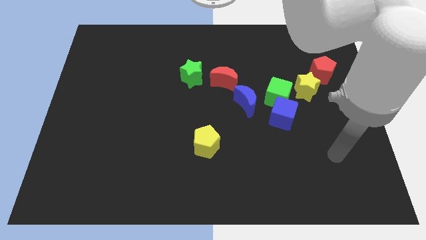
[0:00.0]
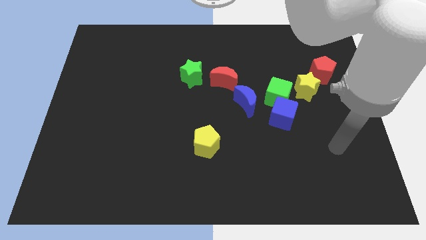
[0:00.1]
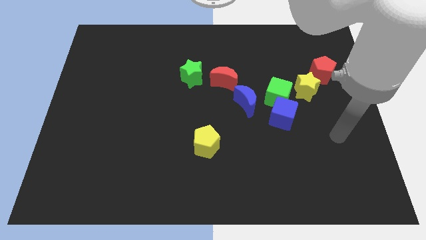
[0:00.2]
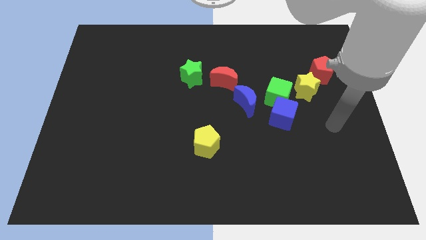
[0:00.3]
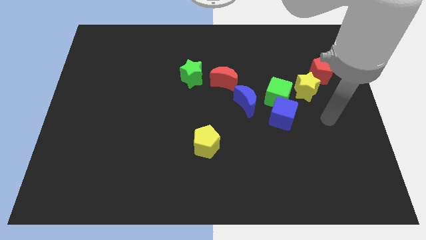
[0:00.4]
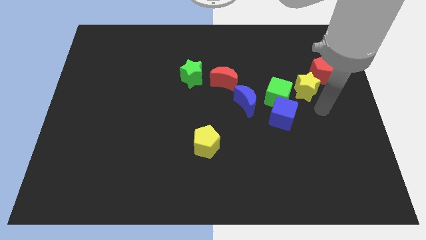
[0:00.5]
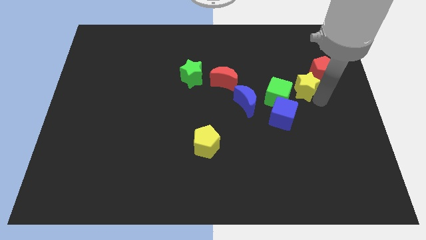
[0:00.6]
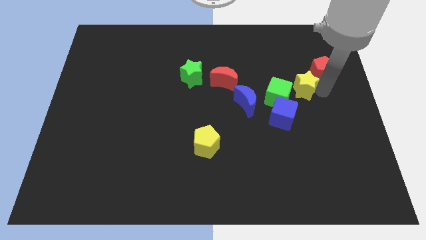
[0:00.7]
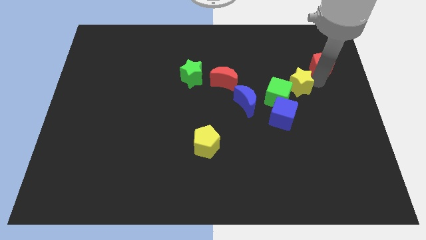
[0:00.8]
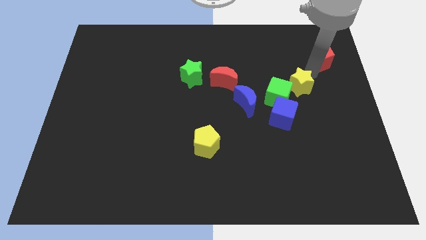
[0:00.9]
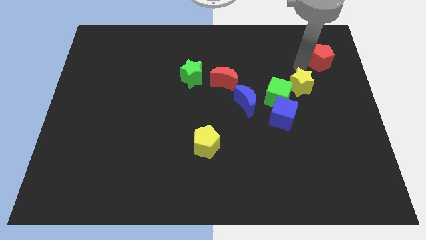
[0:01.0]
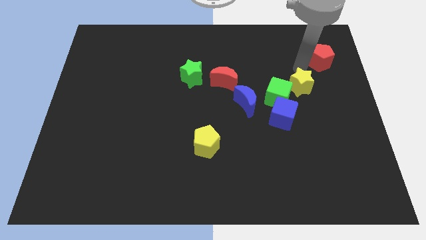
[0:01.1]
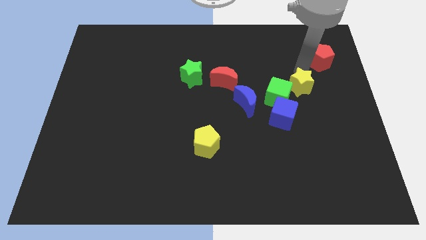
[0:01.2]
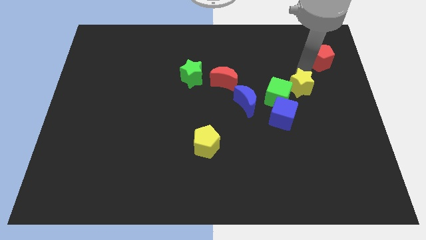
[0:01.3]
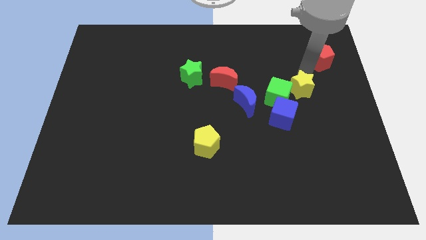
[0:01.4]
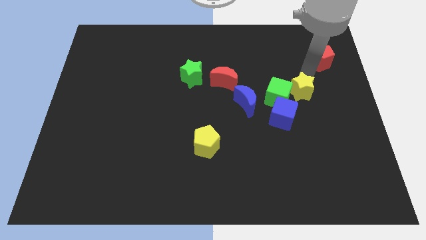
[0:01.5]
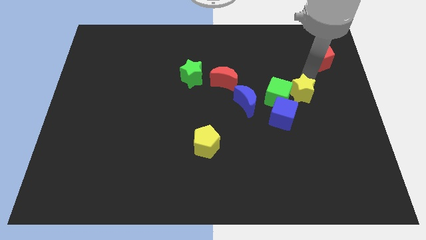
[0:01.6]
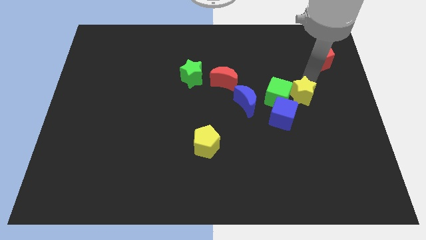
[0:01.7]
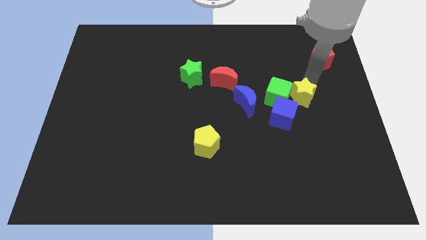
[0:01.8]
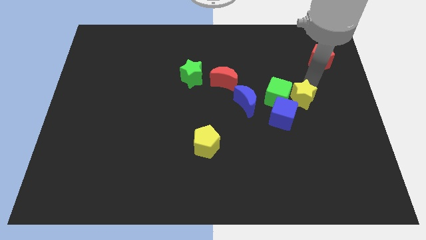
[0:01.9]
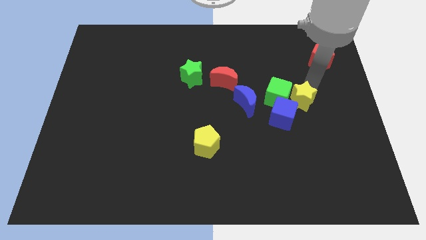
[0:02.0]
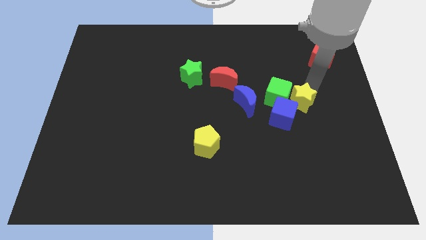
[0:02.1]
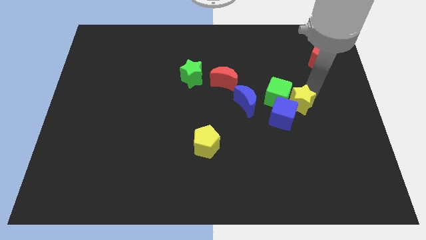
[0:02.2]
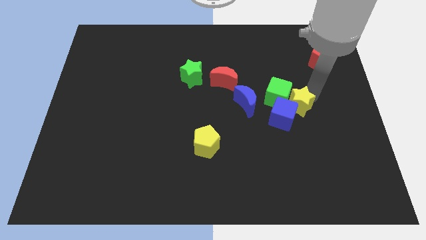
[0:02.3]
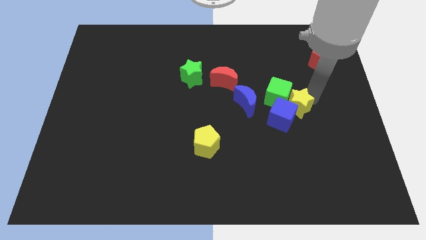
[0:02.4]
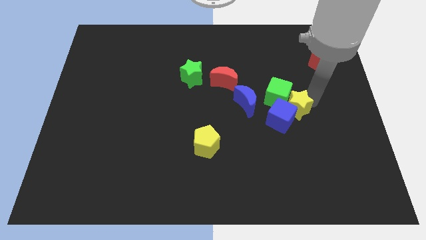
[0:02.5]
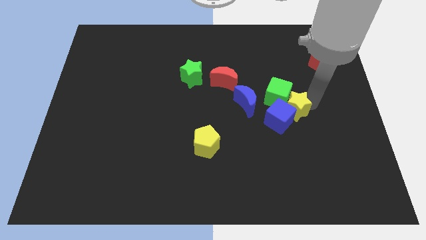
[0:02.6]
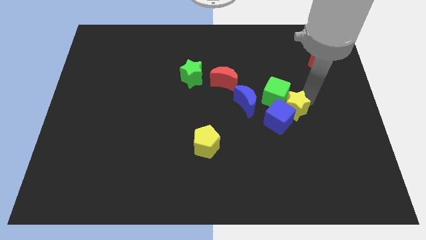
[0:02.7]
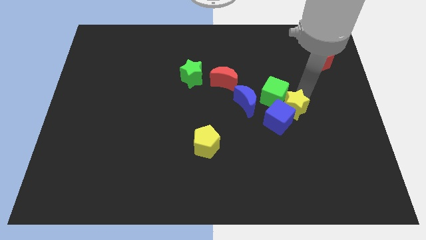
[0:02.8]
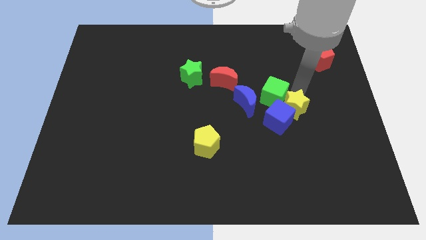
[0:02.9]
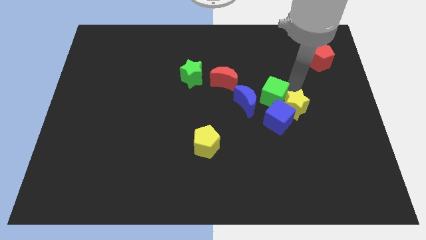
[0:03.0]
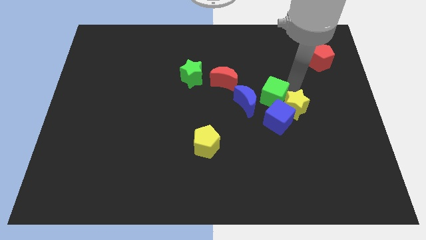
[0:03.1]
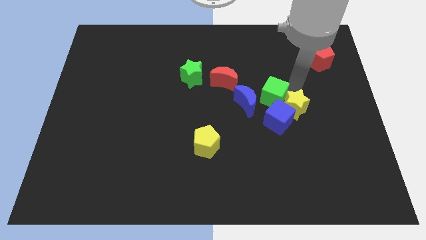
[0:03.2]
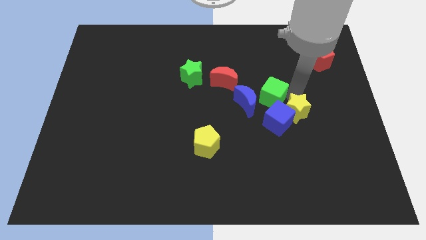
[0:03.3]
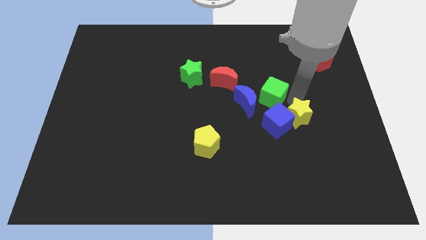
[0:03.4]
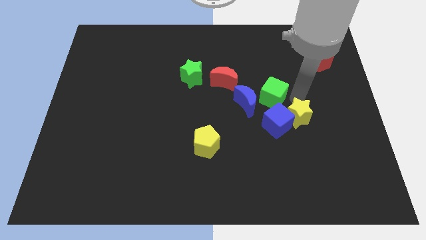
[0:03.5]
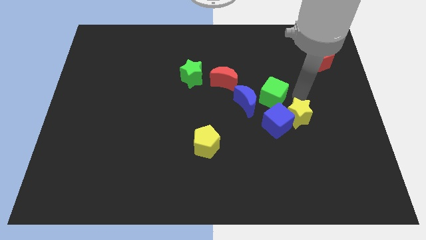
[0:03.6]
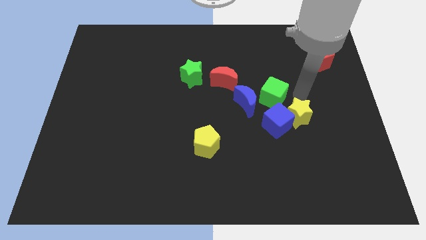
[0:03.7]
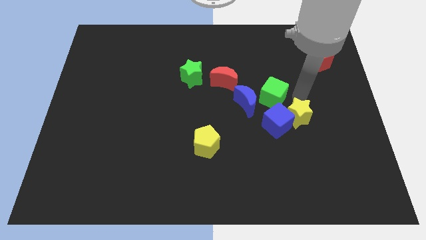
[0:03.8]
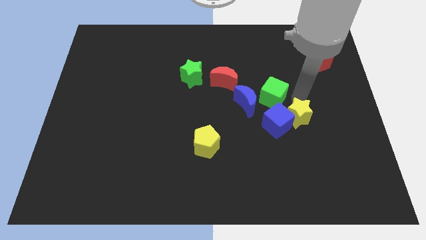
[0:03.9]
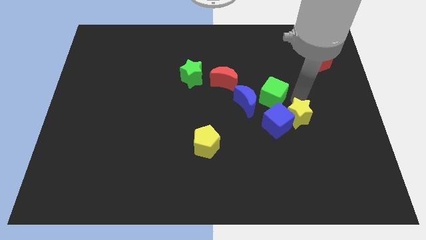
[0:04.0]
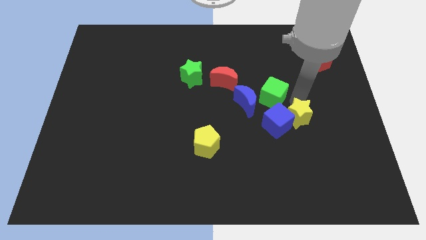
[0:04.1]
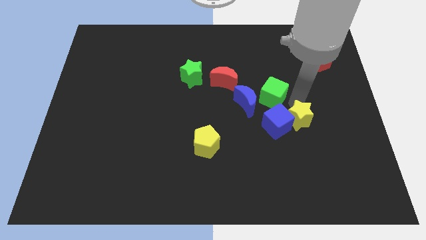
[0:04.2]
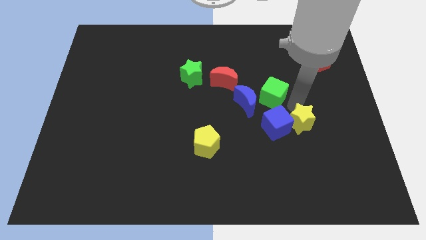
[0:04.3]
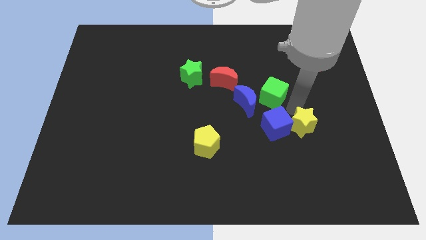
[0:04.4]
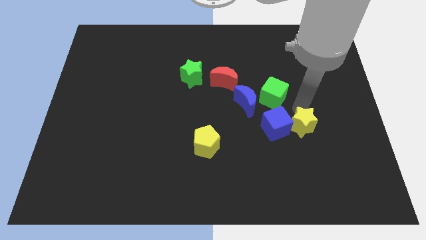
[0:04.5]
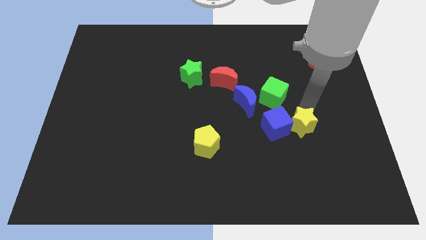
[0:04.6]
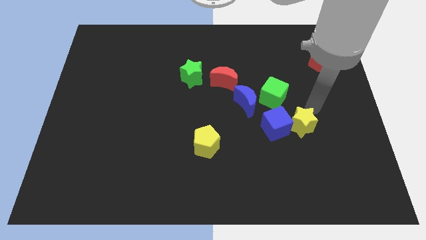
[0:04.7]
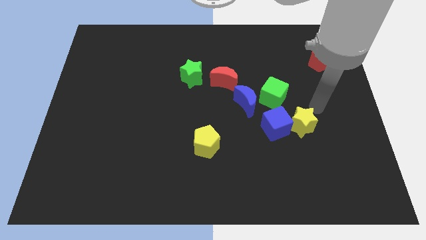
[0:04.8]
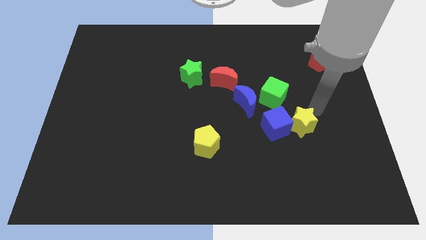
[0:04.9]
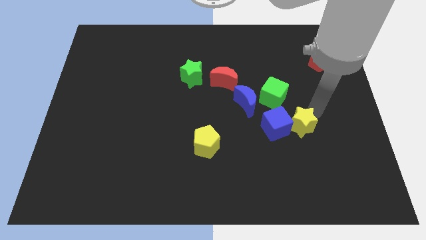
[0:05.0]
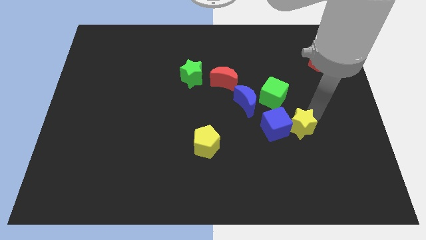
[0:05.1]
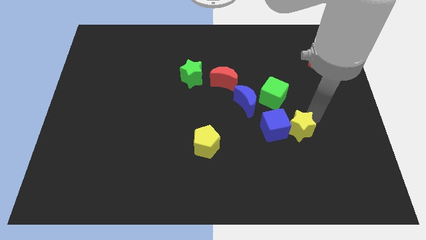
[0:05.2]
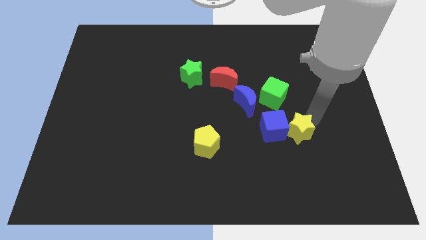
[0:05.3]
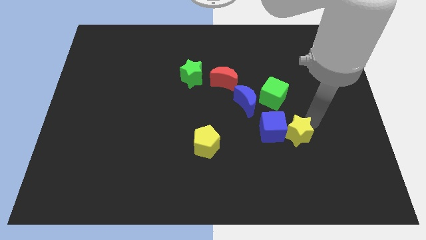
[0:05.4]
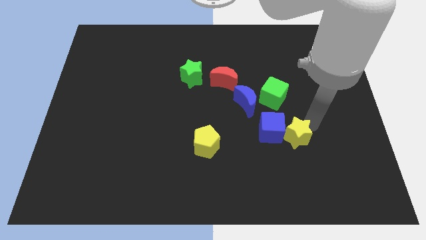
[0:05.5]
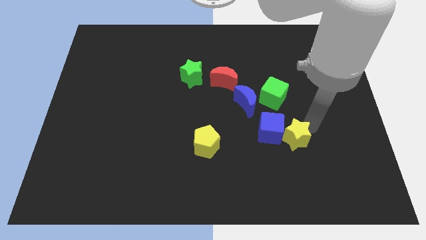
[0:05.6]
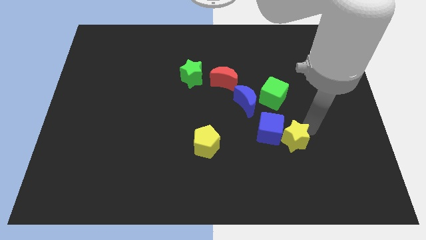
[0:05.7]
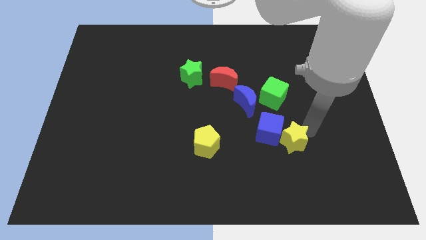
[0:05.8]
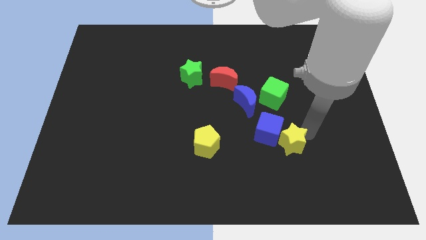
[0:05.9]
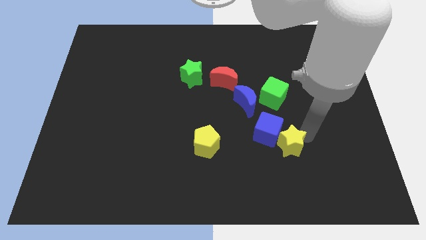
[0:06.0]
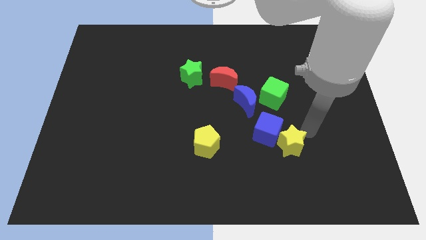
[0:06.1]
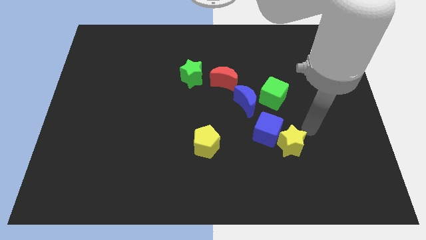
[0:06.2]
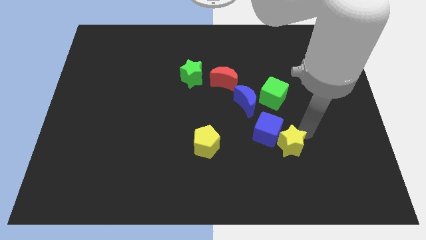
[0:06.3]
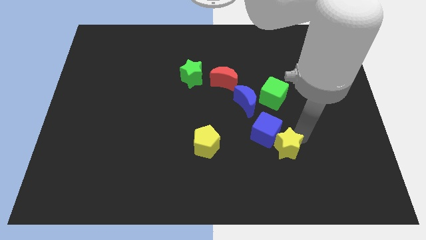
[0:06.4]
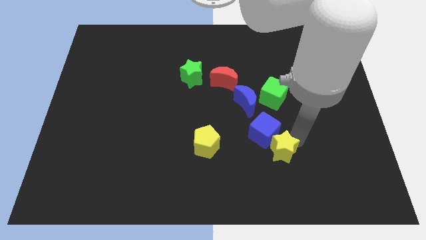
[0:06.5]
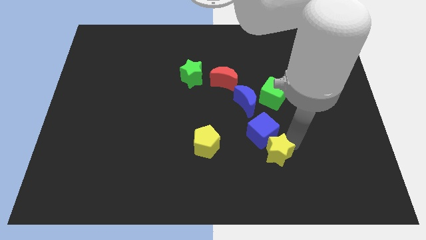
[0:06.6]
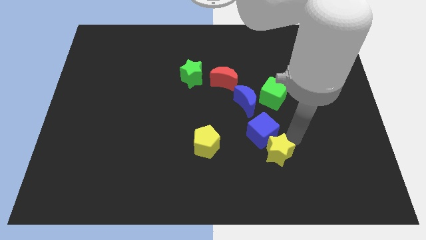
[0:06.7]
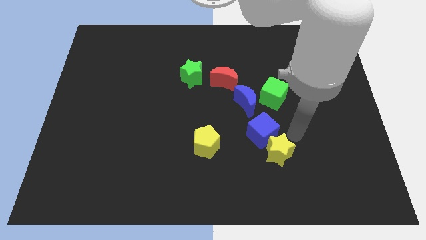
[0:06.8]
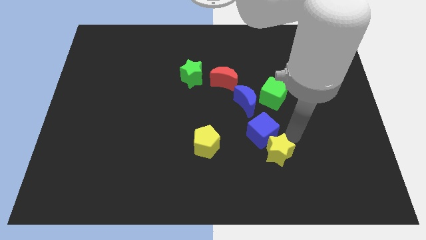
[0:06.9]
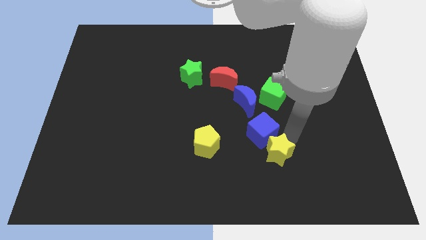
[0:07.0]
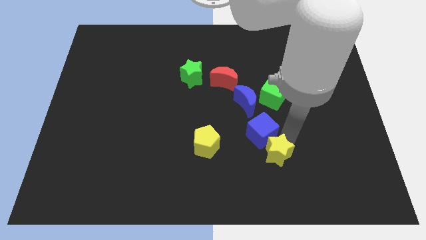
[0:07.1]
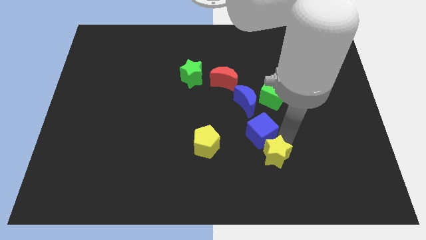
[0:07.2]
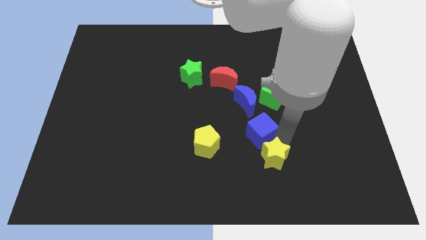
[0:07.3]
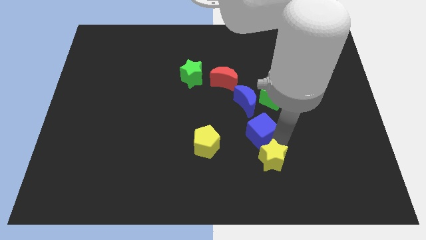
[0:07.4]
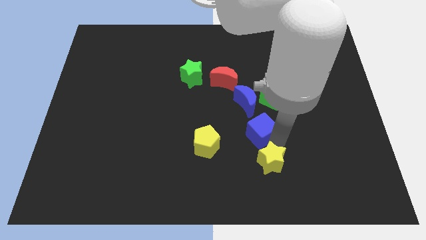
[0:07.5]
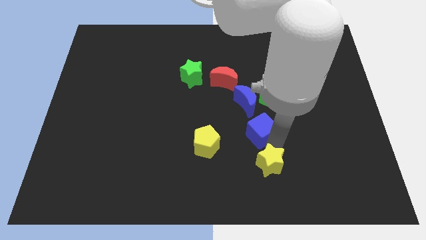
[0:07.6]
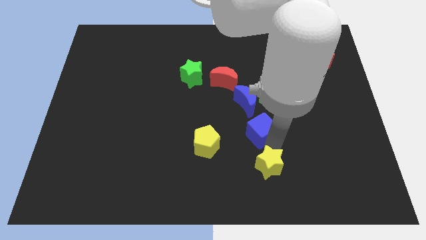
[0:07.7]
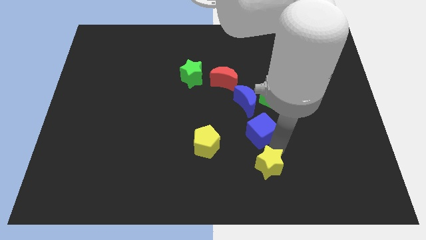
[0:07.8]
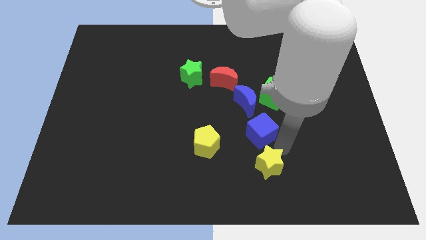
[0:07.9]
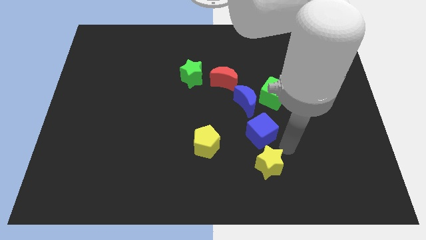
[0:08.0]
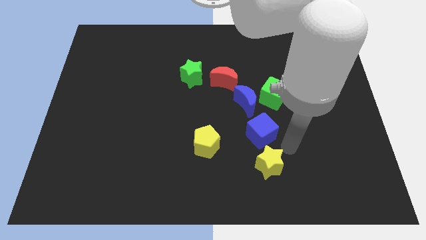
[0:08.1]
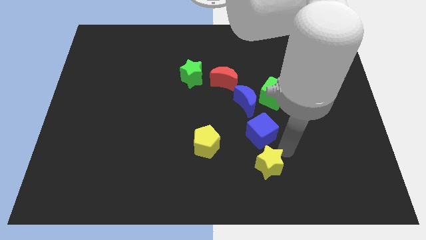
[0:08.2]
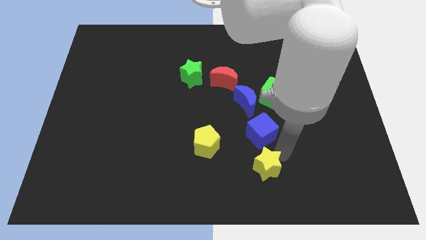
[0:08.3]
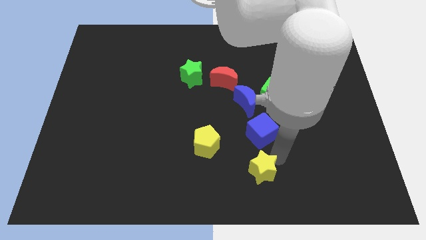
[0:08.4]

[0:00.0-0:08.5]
slide the yellow star to the bottom side
